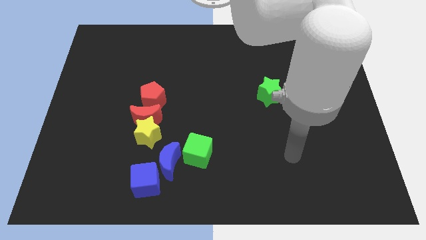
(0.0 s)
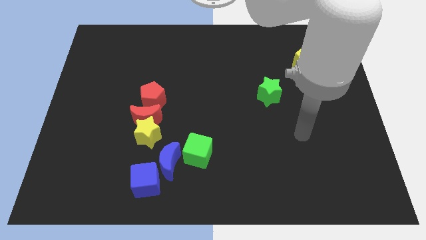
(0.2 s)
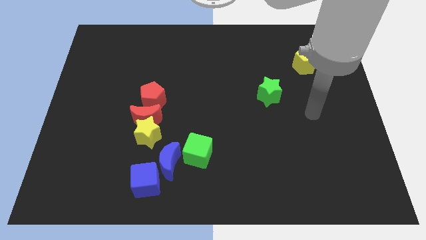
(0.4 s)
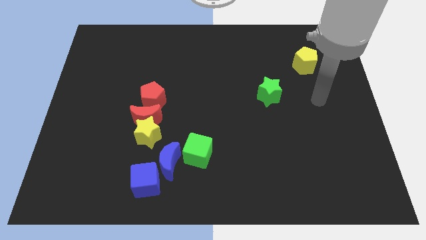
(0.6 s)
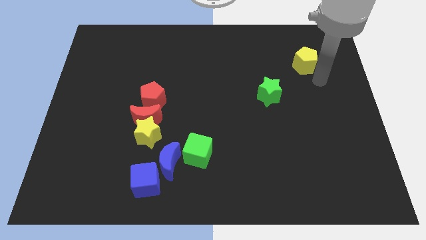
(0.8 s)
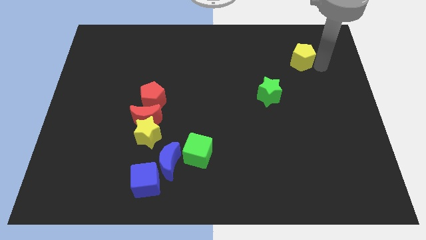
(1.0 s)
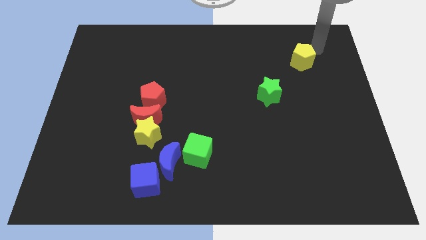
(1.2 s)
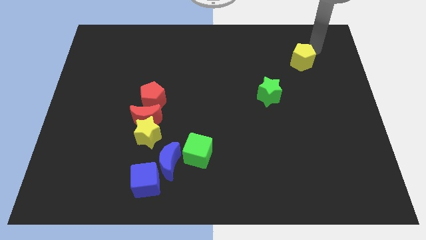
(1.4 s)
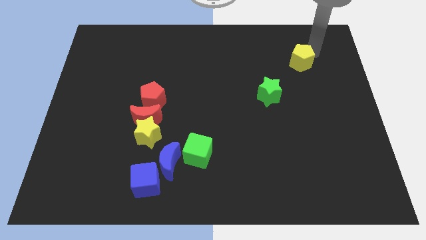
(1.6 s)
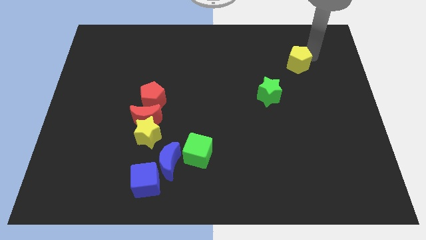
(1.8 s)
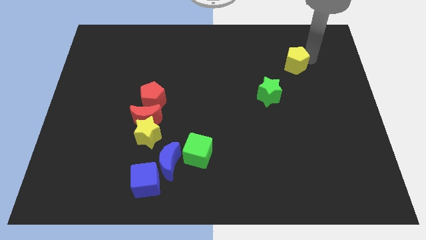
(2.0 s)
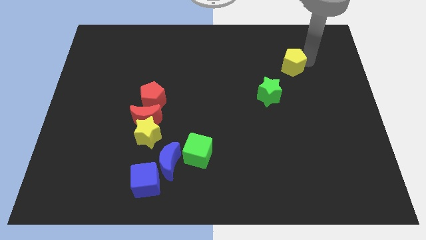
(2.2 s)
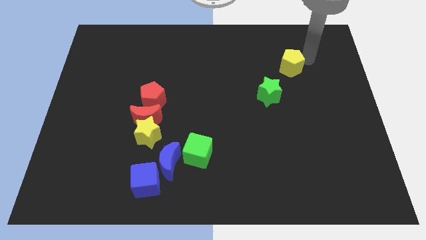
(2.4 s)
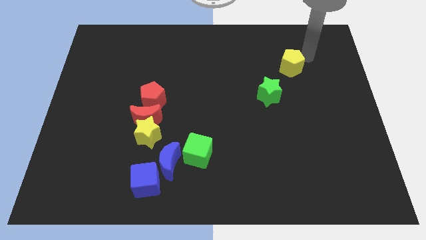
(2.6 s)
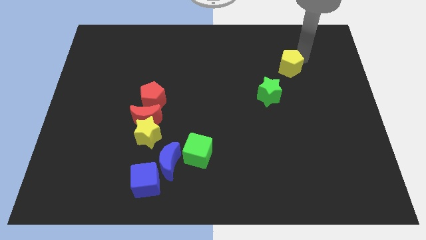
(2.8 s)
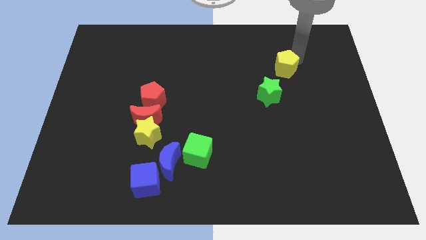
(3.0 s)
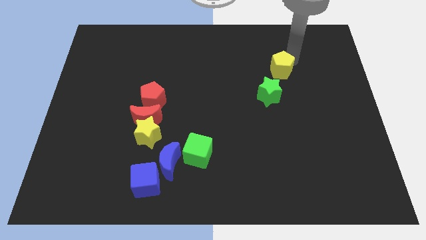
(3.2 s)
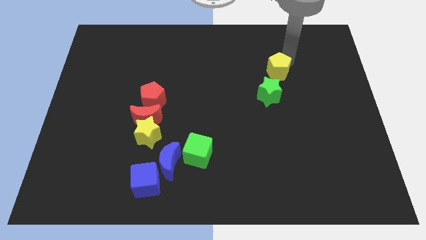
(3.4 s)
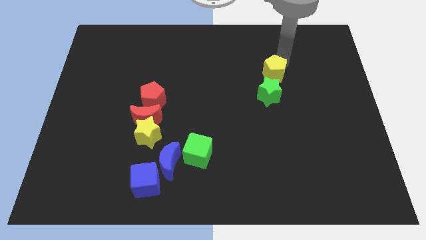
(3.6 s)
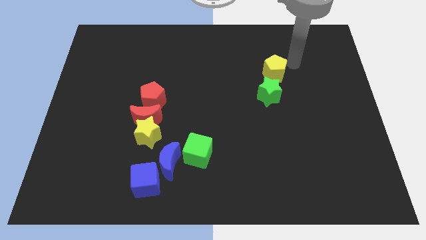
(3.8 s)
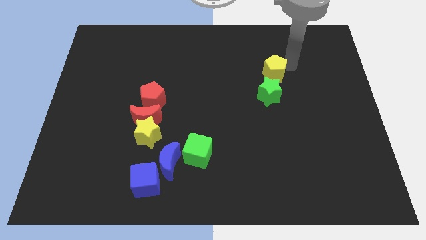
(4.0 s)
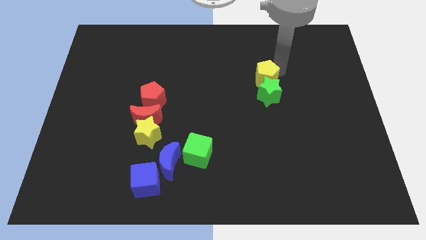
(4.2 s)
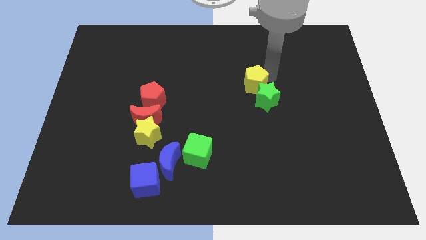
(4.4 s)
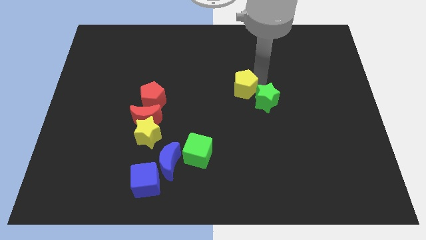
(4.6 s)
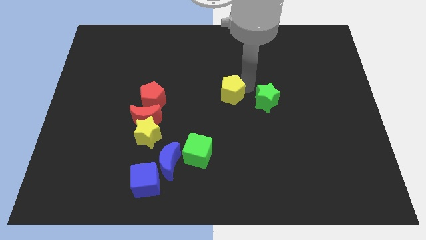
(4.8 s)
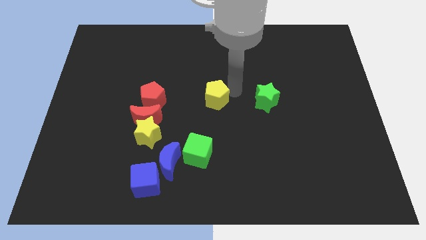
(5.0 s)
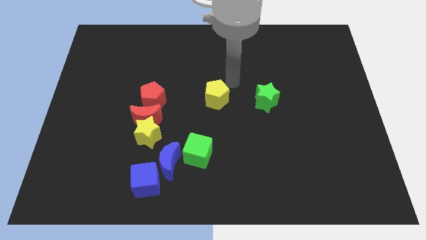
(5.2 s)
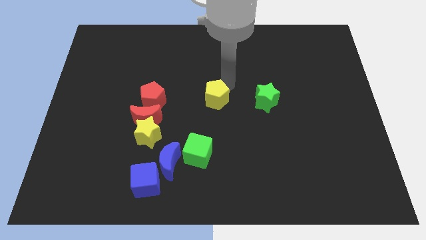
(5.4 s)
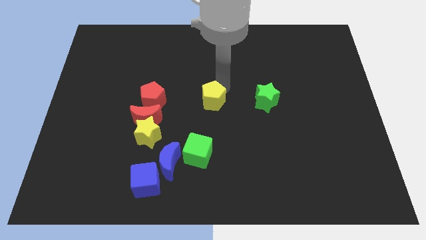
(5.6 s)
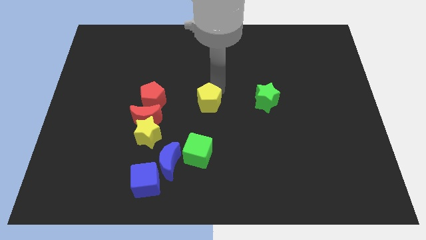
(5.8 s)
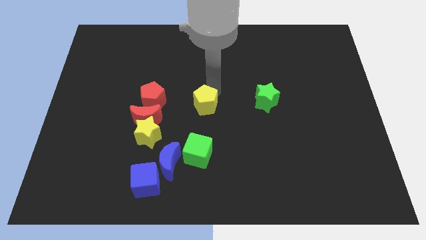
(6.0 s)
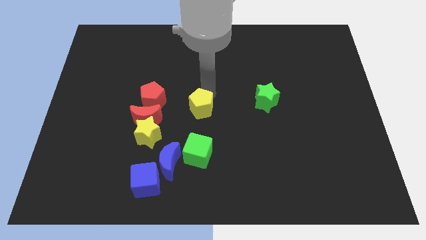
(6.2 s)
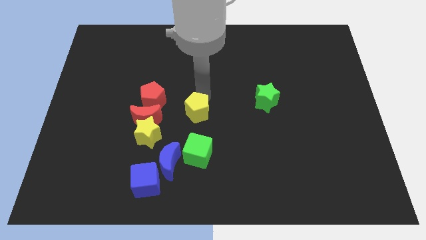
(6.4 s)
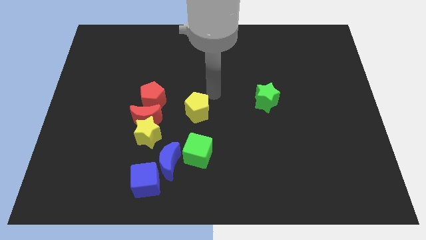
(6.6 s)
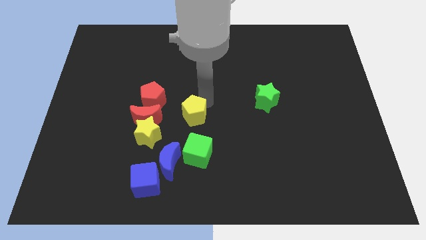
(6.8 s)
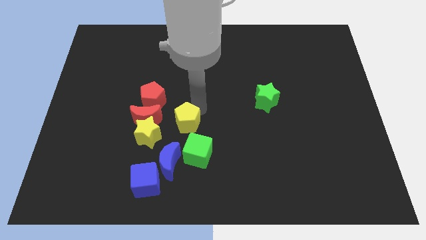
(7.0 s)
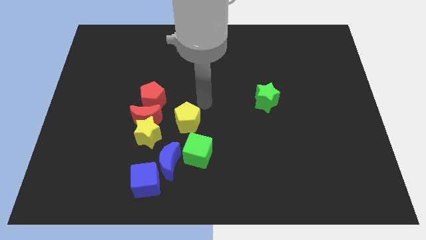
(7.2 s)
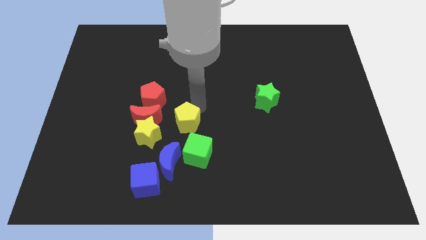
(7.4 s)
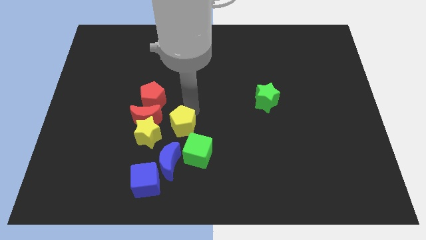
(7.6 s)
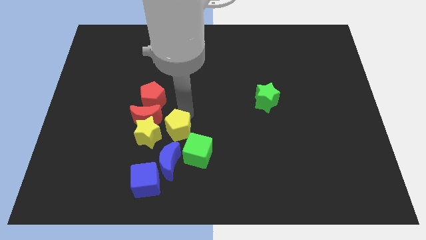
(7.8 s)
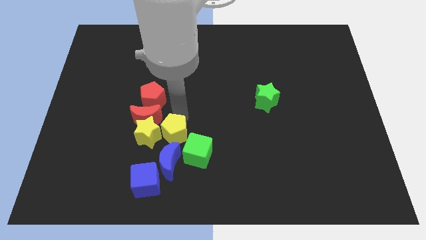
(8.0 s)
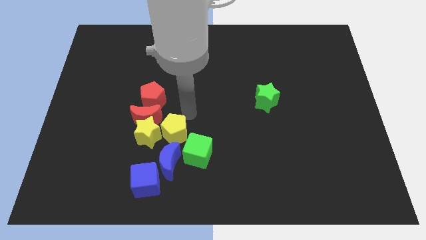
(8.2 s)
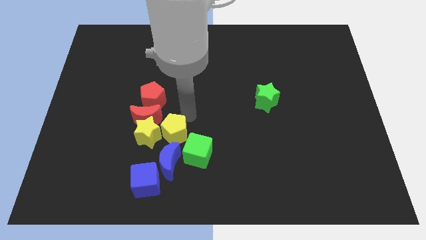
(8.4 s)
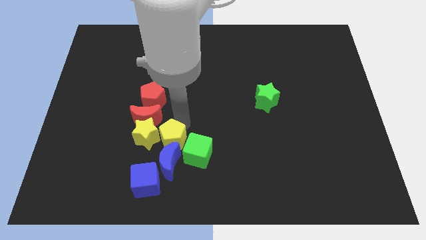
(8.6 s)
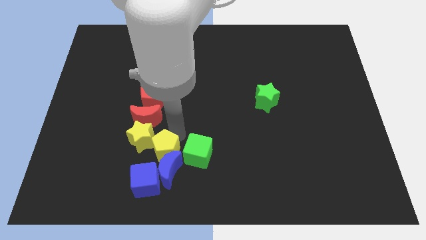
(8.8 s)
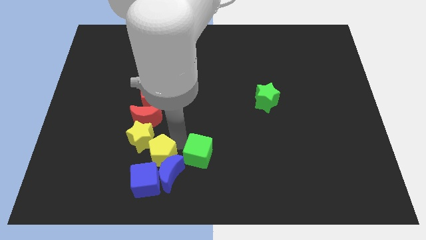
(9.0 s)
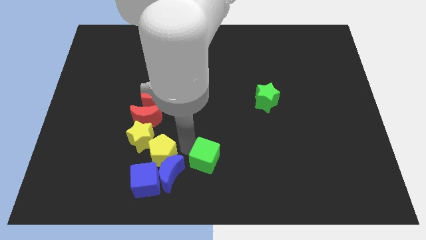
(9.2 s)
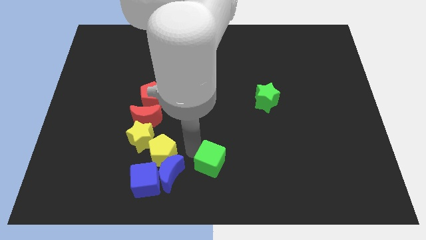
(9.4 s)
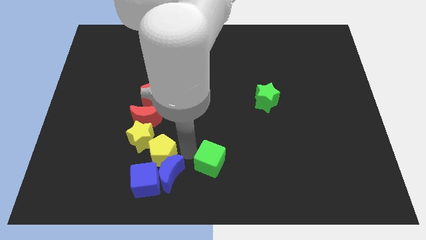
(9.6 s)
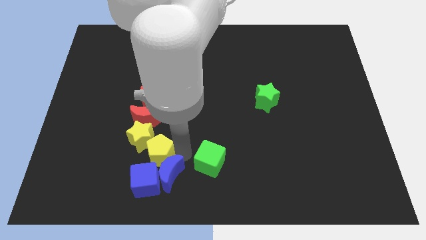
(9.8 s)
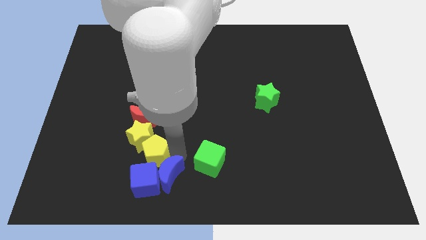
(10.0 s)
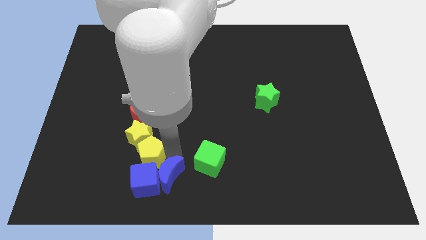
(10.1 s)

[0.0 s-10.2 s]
move the yellow pentagon to the left of the blue moon

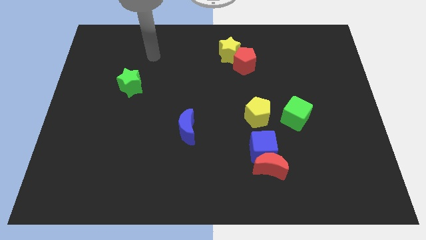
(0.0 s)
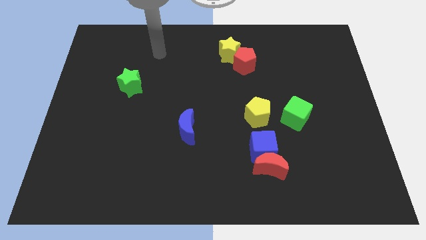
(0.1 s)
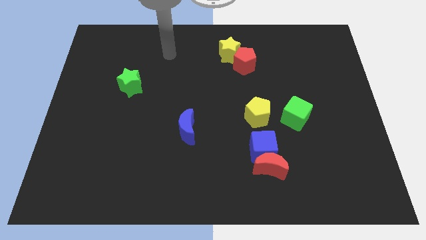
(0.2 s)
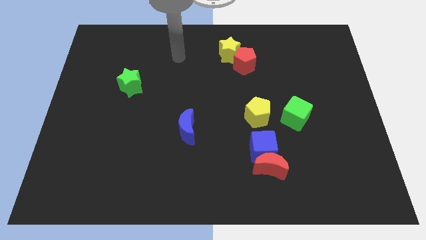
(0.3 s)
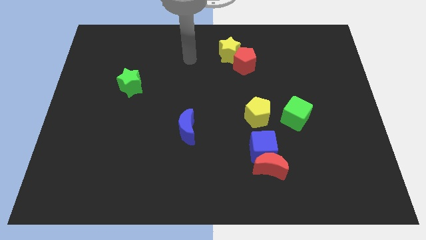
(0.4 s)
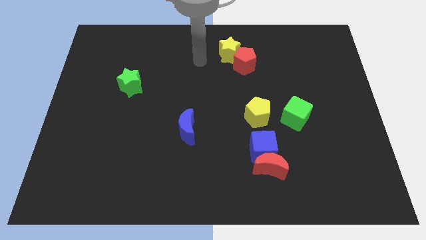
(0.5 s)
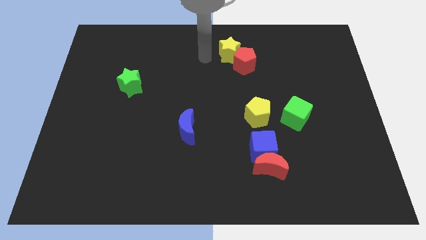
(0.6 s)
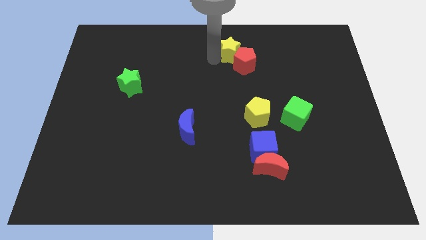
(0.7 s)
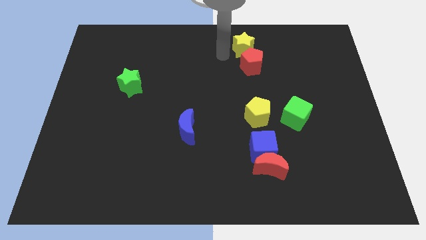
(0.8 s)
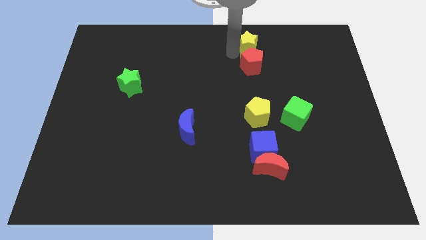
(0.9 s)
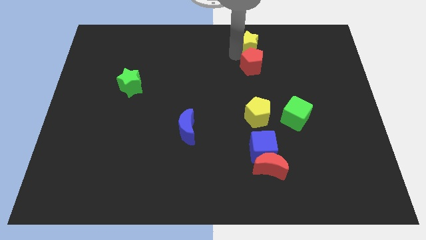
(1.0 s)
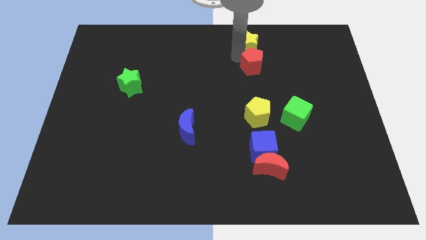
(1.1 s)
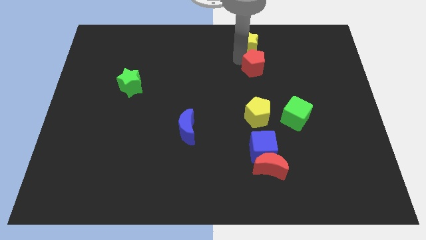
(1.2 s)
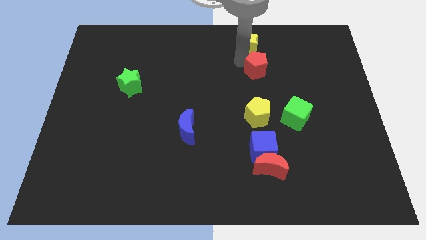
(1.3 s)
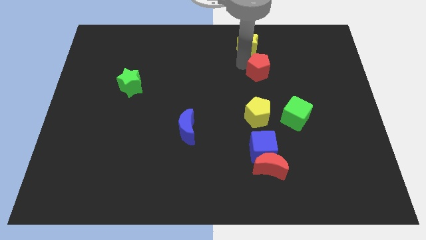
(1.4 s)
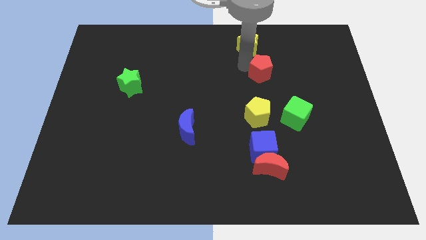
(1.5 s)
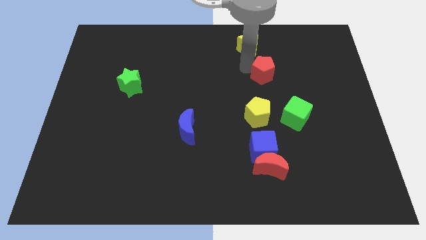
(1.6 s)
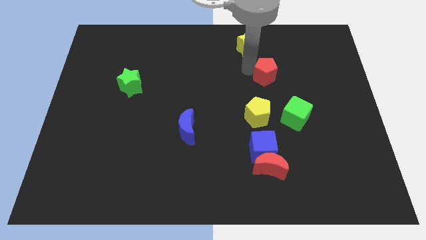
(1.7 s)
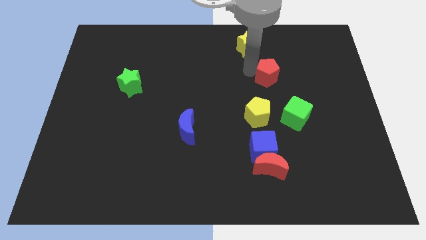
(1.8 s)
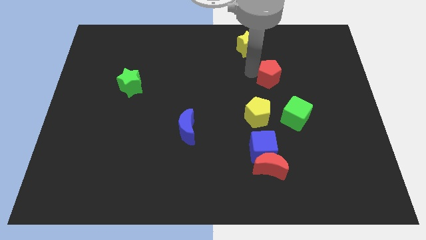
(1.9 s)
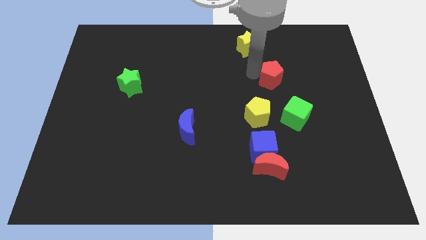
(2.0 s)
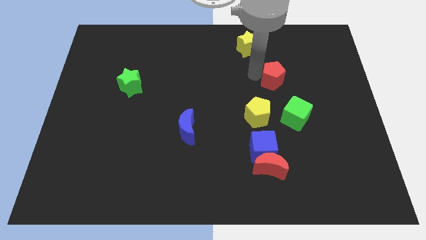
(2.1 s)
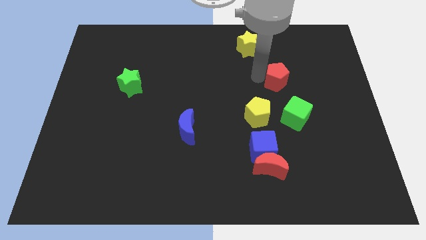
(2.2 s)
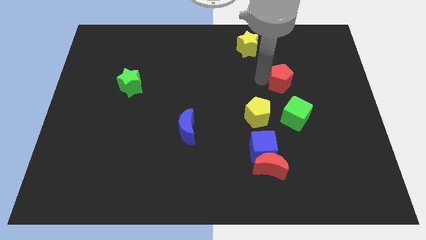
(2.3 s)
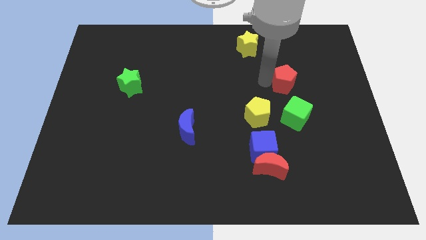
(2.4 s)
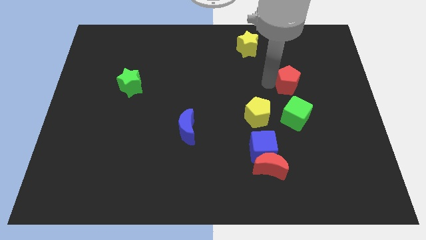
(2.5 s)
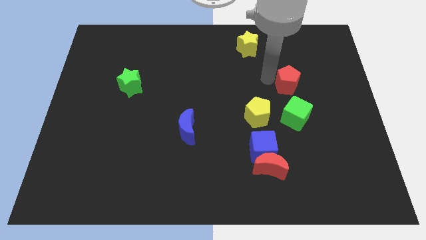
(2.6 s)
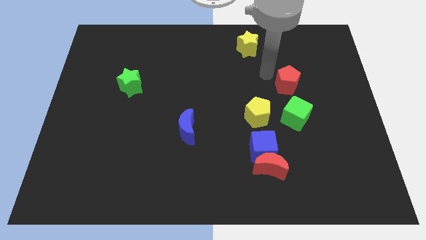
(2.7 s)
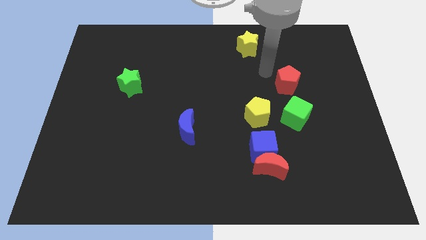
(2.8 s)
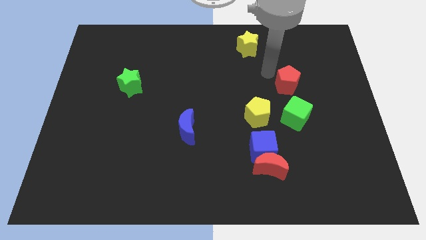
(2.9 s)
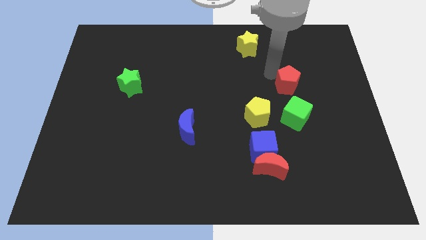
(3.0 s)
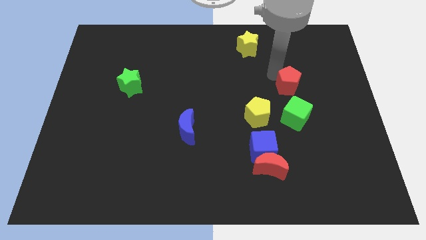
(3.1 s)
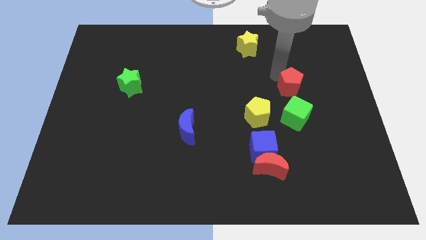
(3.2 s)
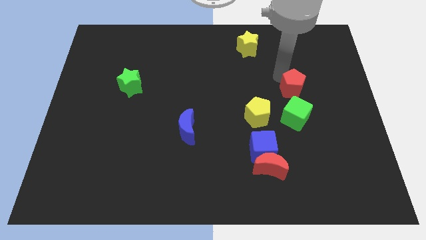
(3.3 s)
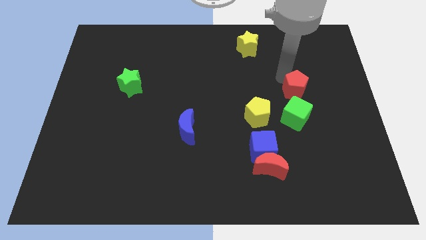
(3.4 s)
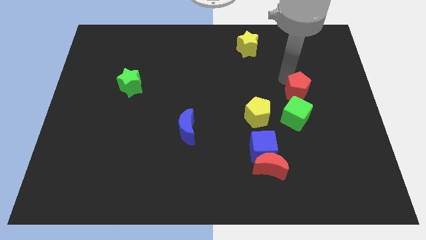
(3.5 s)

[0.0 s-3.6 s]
put the red pentagon to the top right side of the green cube
